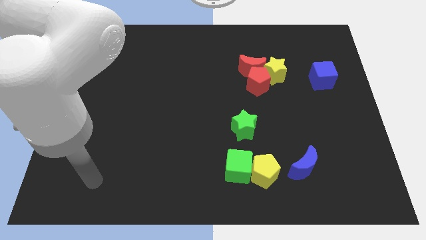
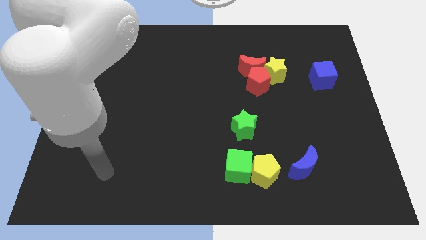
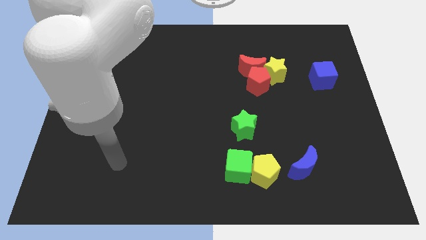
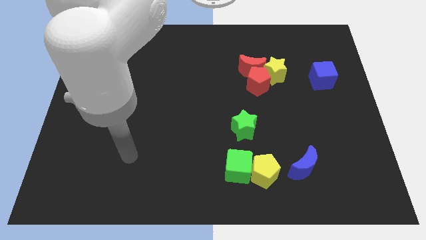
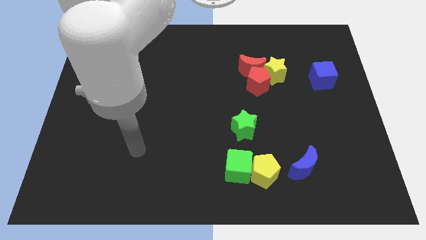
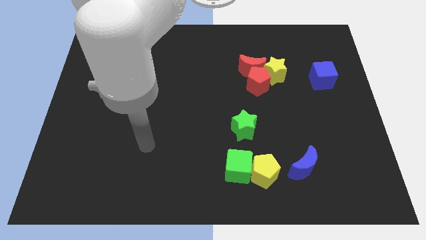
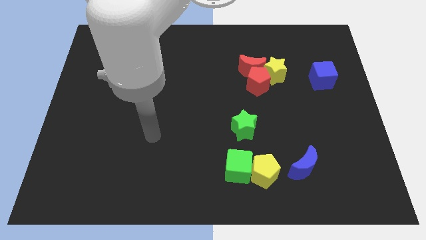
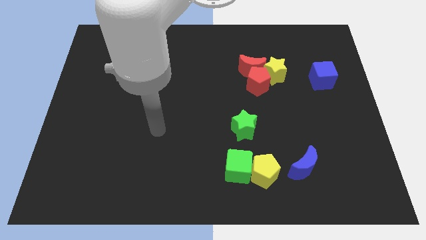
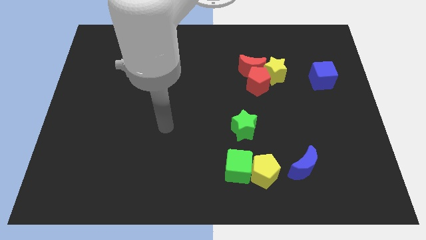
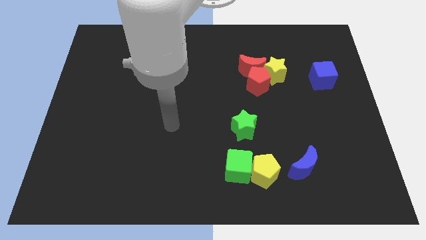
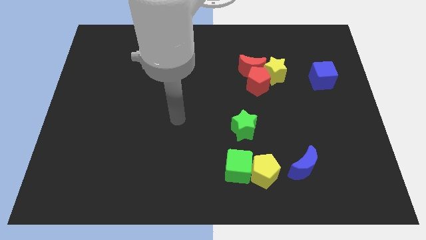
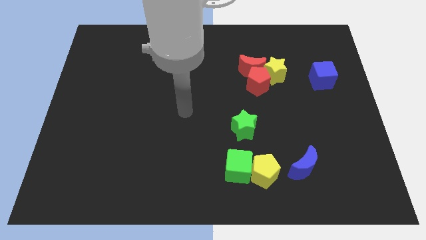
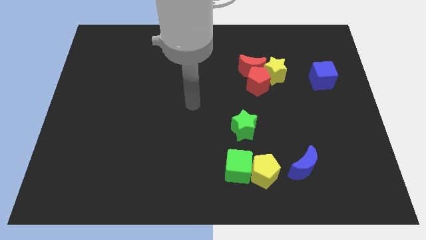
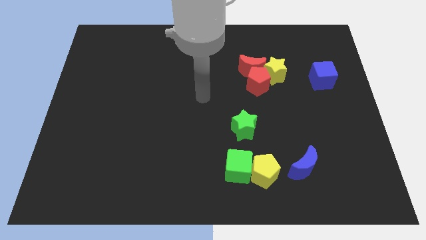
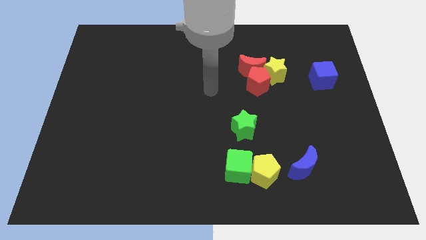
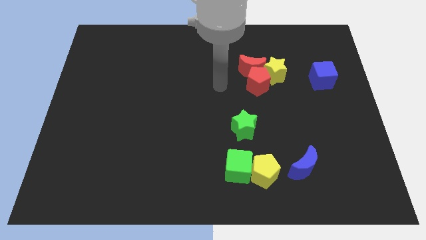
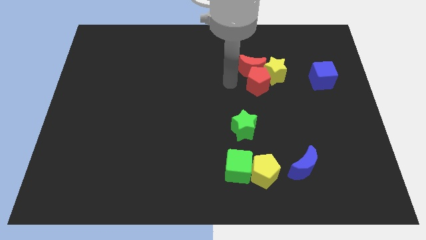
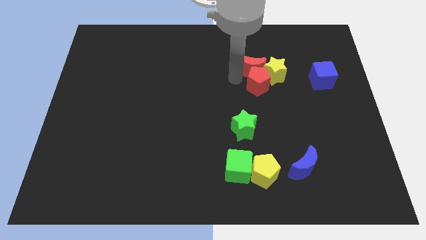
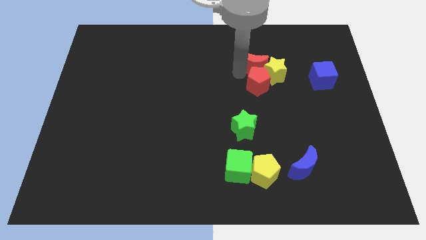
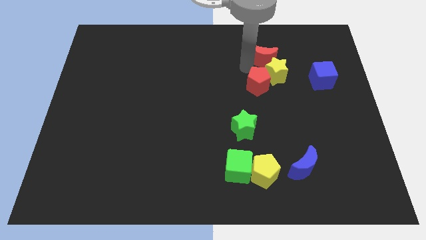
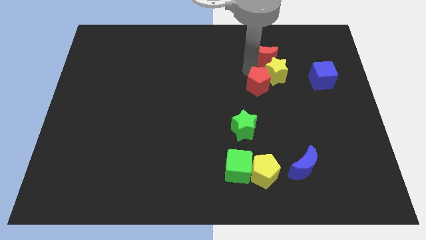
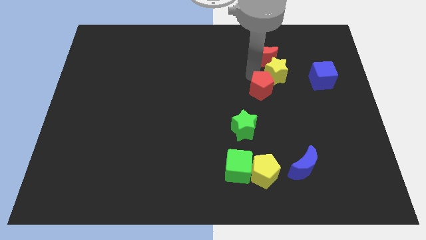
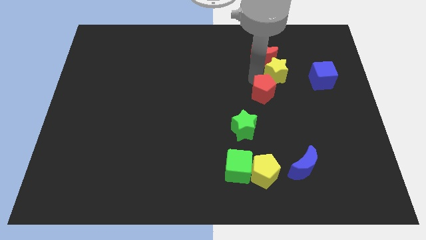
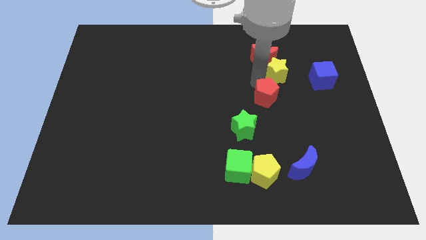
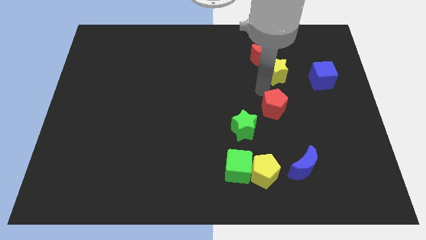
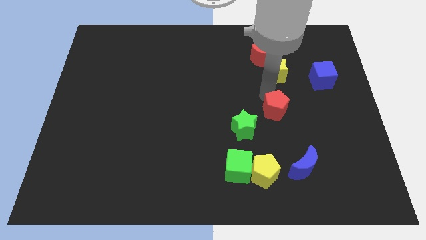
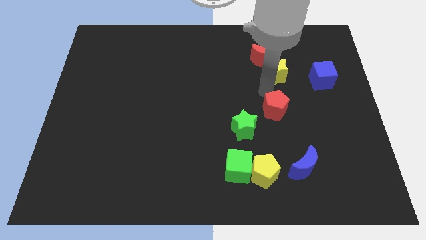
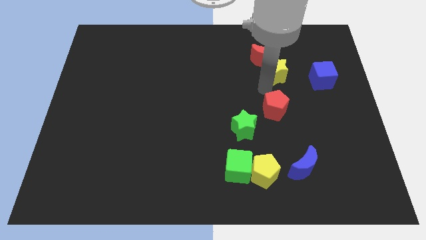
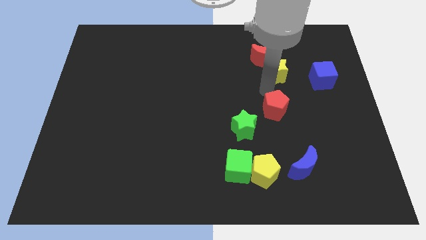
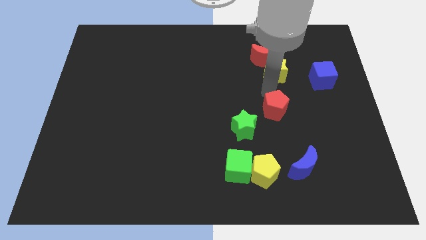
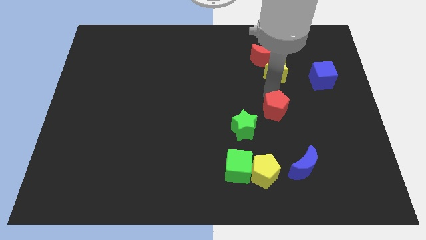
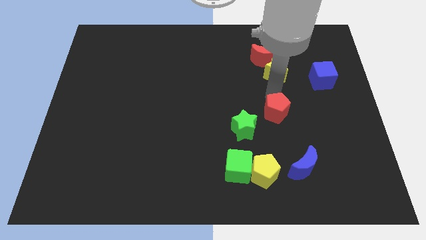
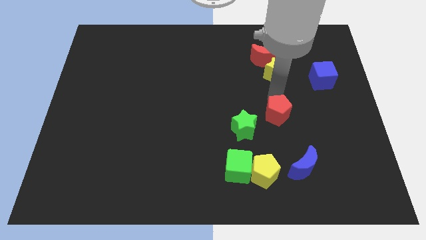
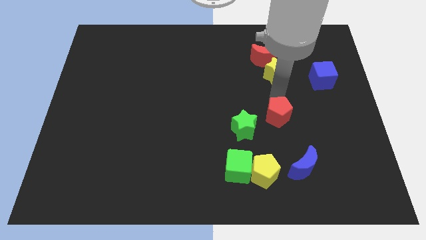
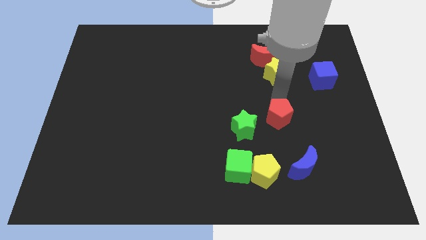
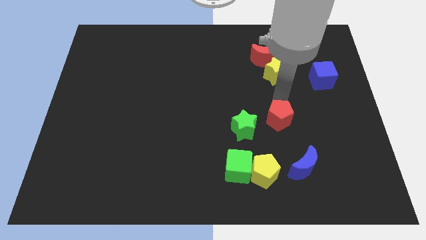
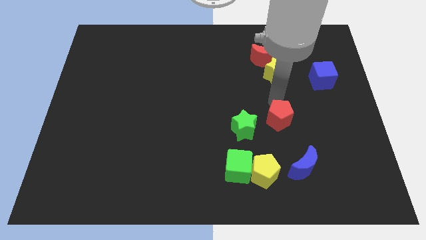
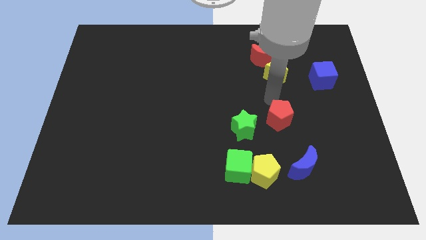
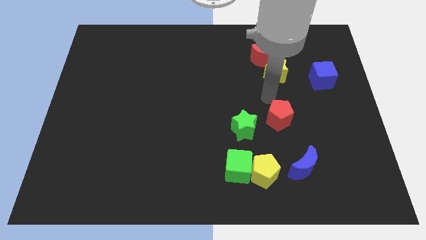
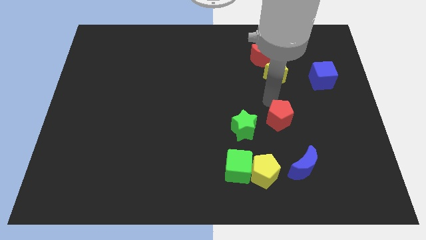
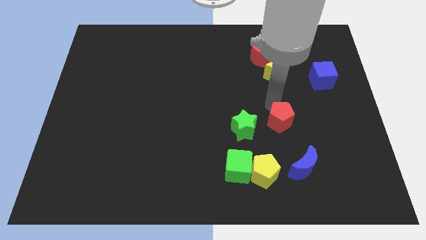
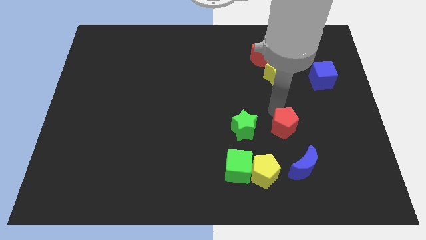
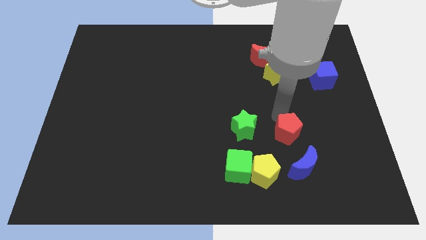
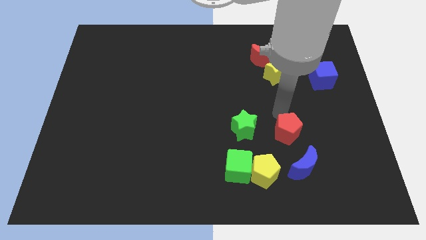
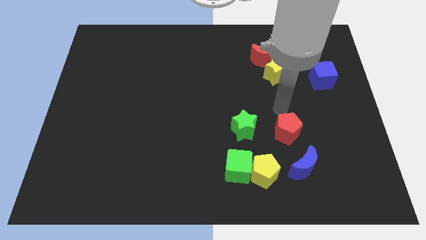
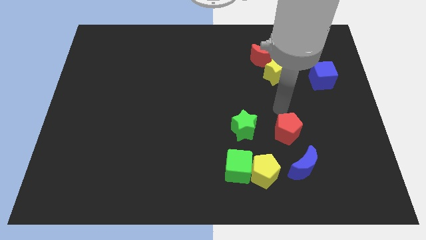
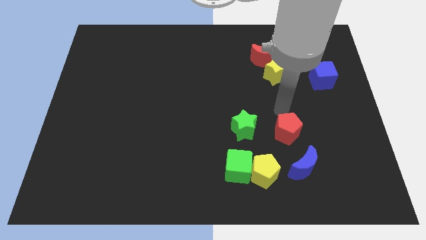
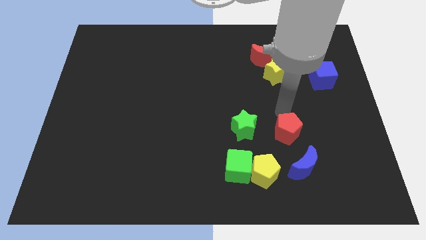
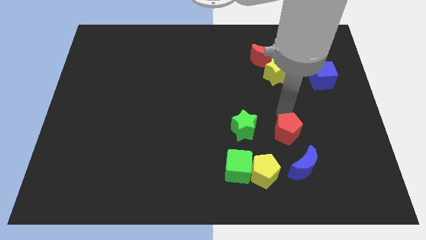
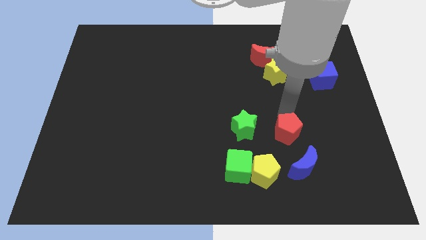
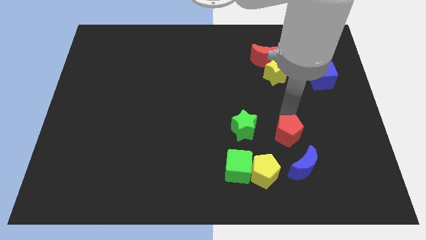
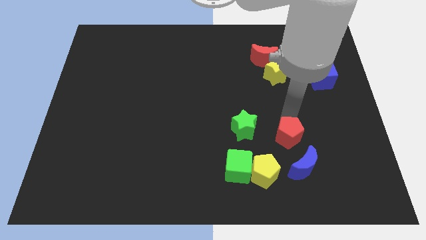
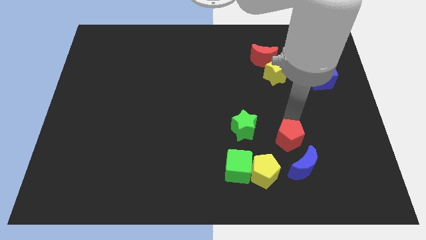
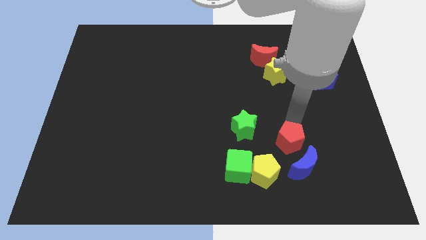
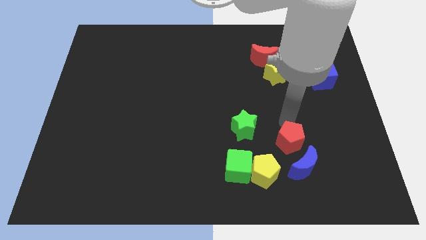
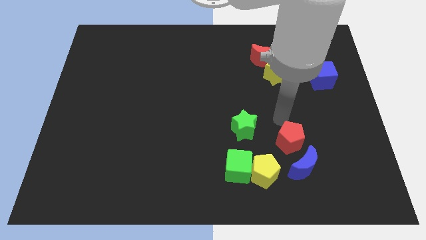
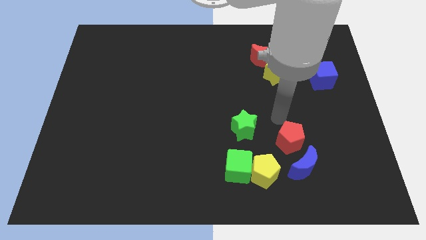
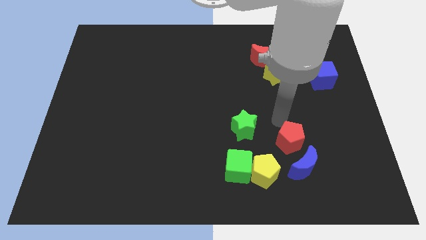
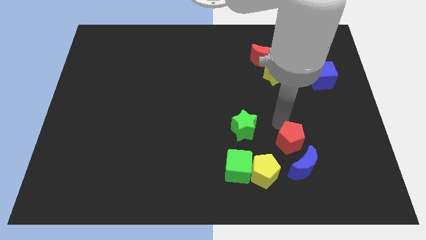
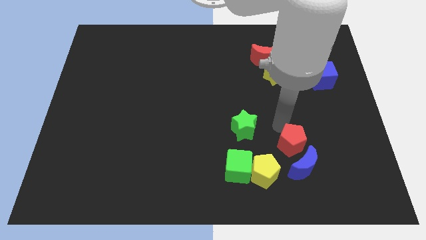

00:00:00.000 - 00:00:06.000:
push the red pentagon to the blue moon
